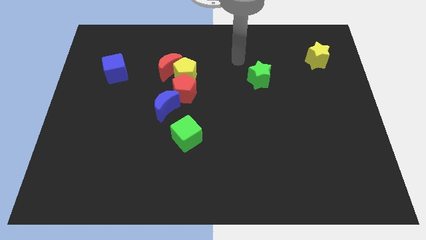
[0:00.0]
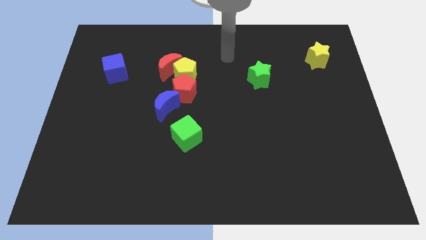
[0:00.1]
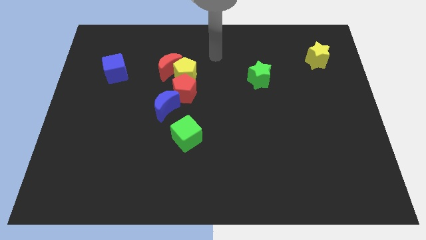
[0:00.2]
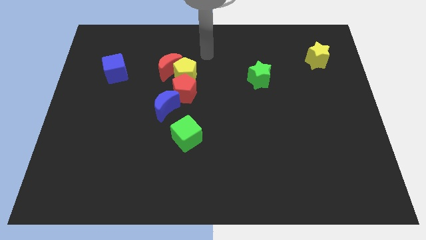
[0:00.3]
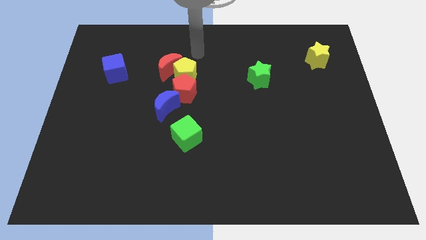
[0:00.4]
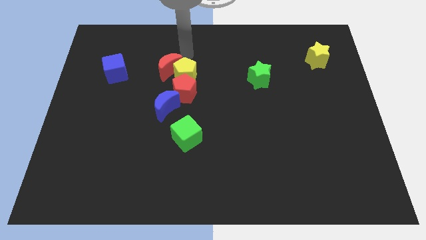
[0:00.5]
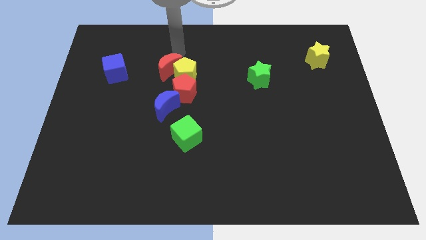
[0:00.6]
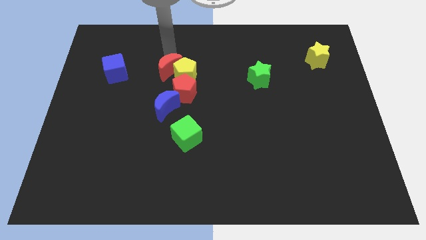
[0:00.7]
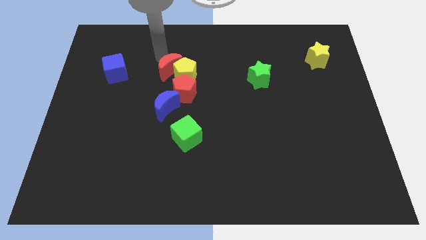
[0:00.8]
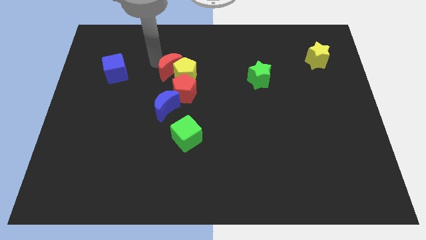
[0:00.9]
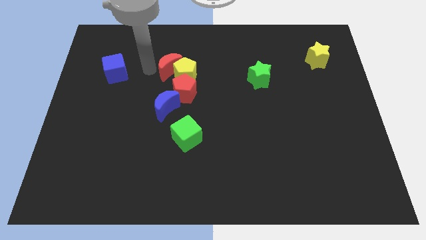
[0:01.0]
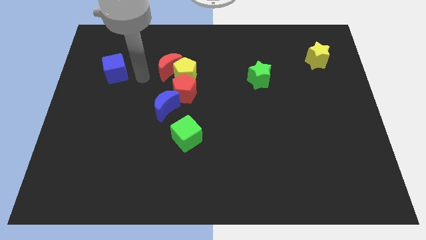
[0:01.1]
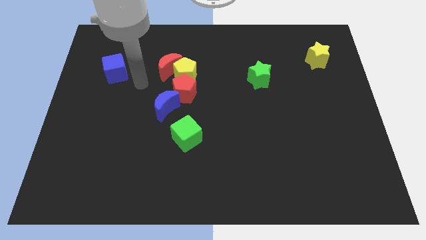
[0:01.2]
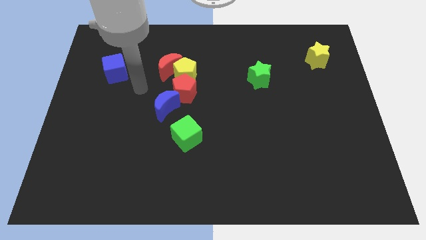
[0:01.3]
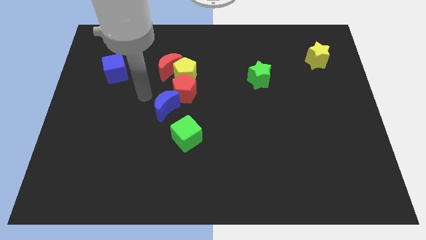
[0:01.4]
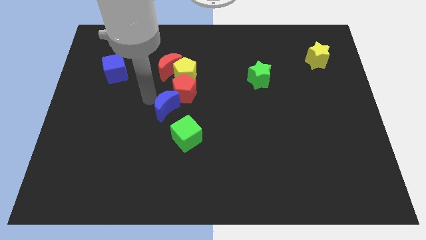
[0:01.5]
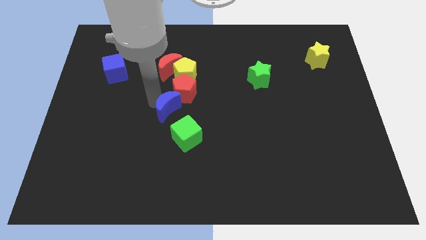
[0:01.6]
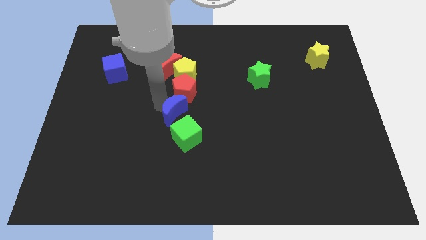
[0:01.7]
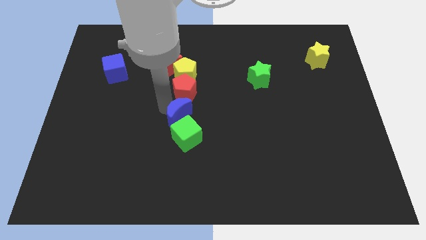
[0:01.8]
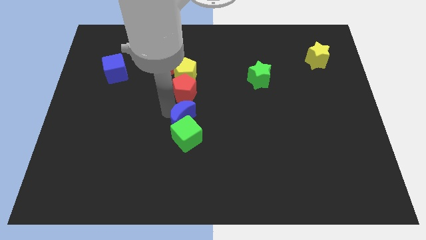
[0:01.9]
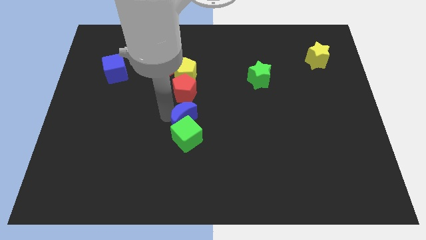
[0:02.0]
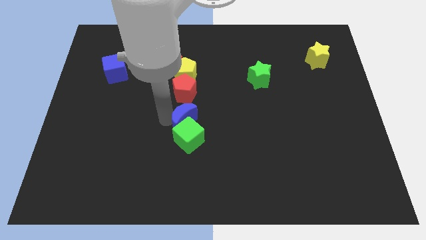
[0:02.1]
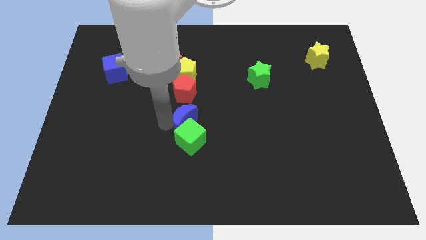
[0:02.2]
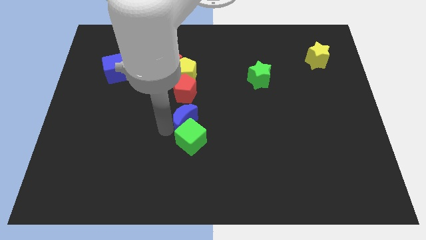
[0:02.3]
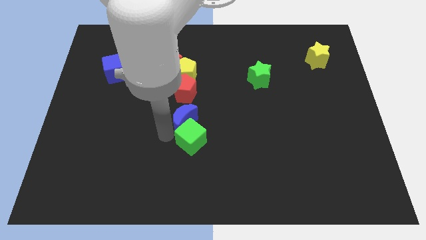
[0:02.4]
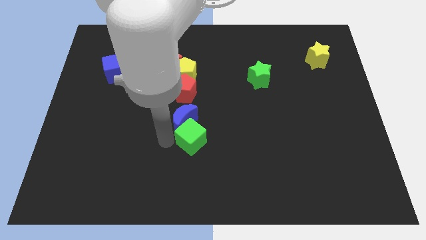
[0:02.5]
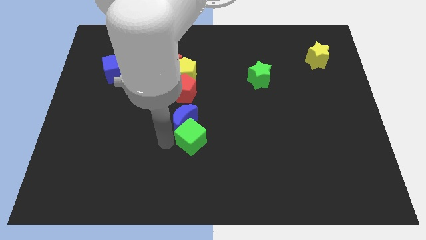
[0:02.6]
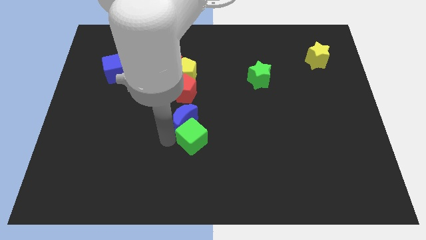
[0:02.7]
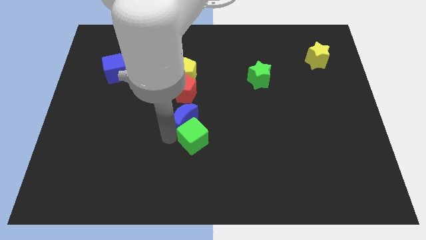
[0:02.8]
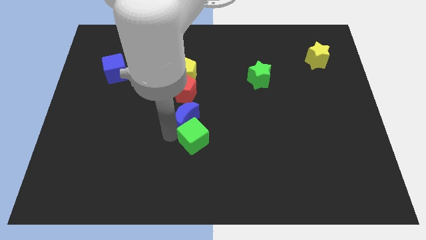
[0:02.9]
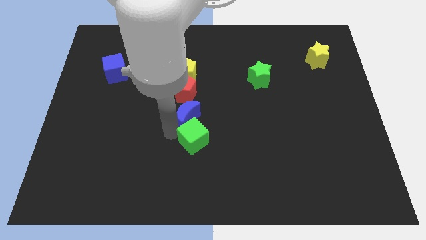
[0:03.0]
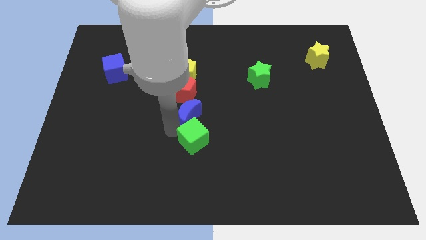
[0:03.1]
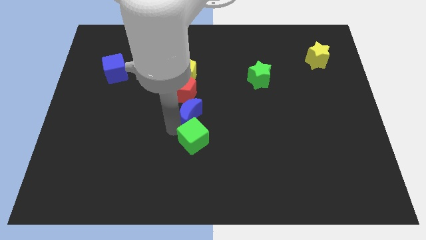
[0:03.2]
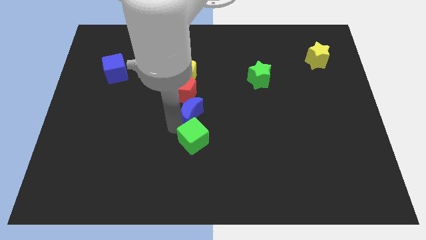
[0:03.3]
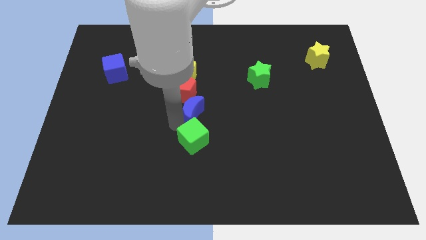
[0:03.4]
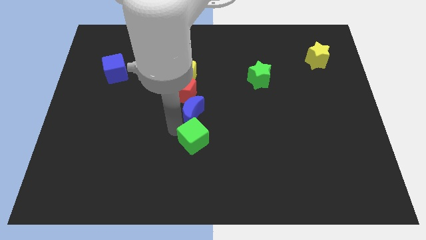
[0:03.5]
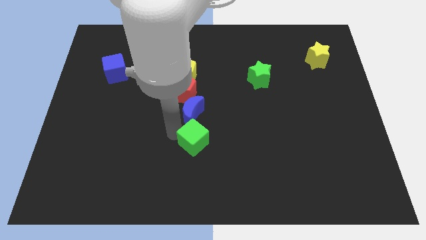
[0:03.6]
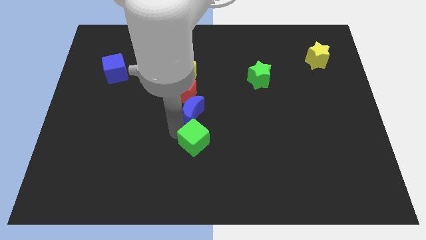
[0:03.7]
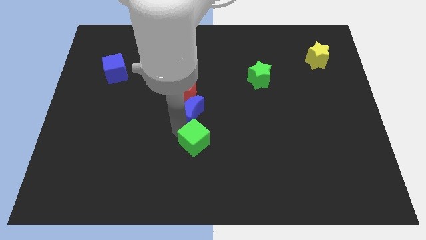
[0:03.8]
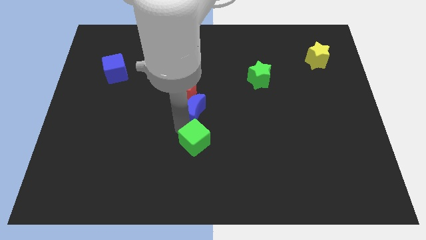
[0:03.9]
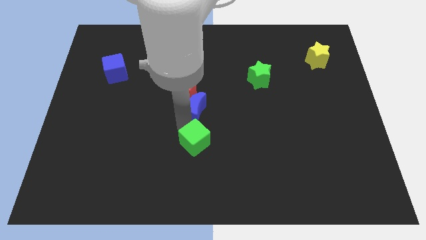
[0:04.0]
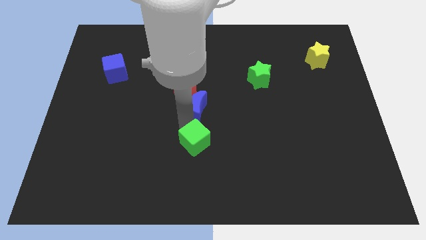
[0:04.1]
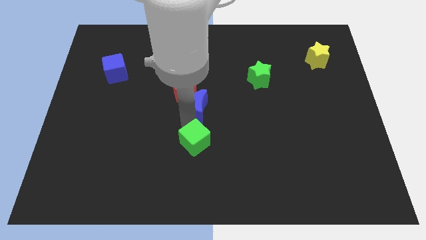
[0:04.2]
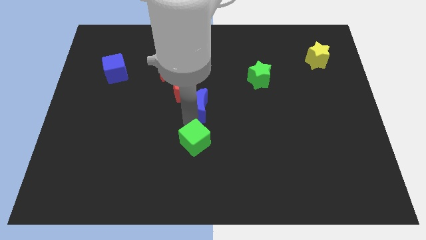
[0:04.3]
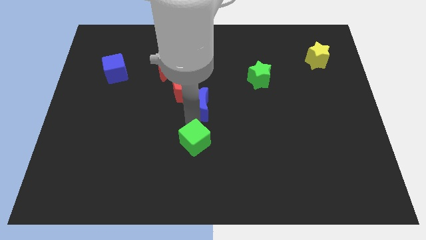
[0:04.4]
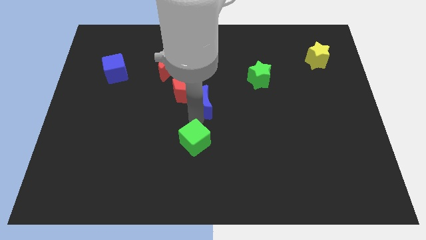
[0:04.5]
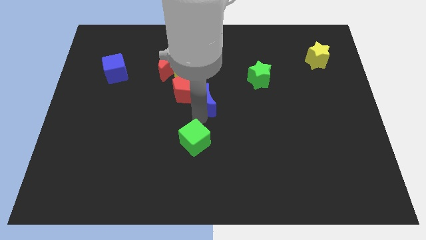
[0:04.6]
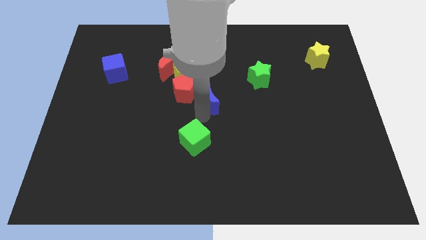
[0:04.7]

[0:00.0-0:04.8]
push the blue moon a little up and then to the right

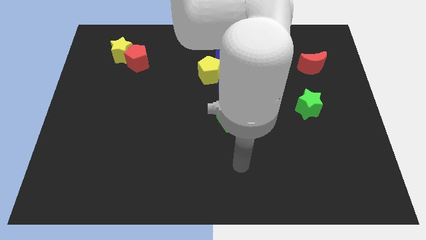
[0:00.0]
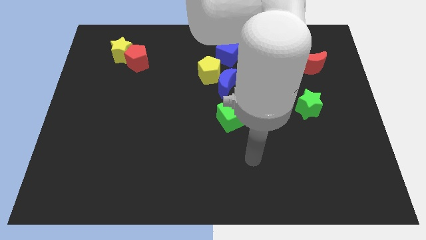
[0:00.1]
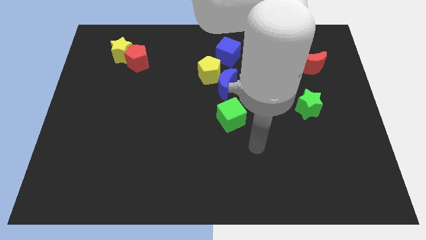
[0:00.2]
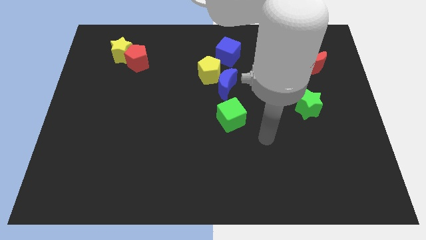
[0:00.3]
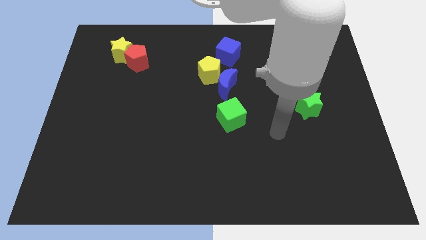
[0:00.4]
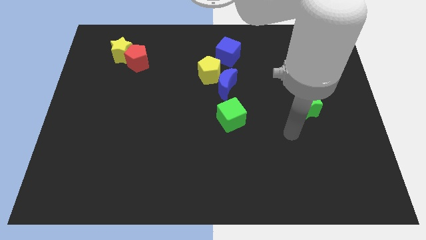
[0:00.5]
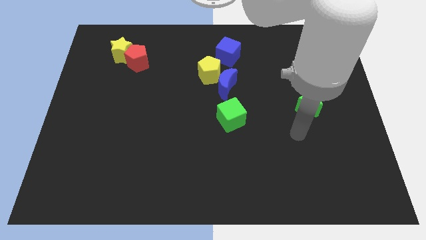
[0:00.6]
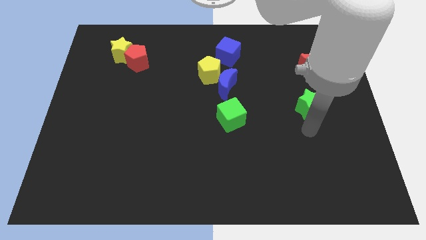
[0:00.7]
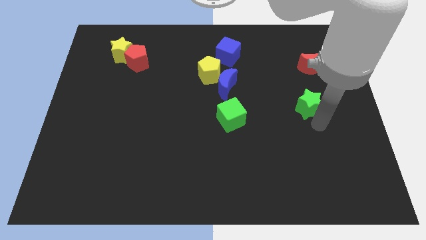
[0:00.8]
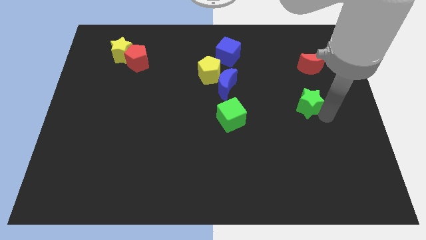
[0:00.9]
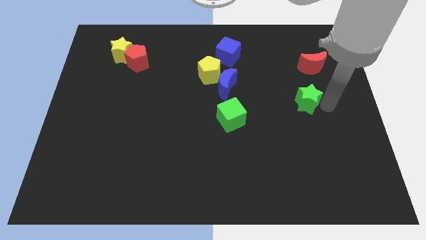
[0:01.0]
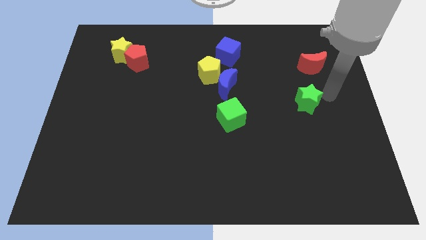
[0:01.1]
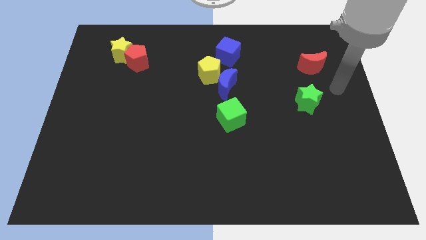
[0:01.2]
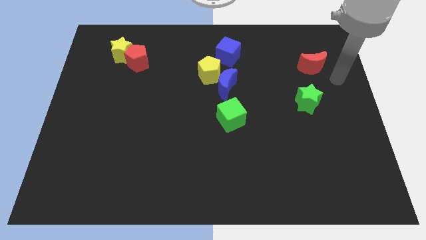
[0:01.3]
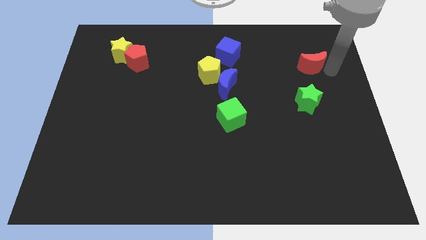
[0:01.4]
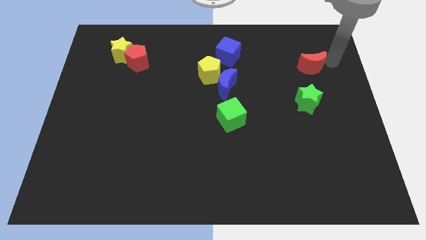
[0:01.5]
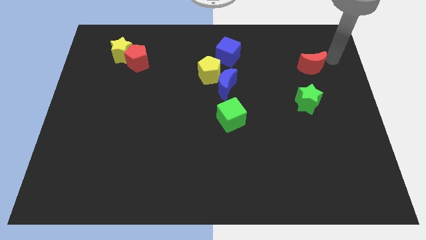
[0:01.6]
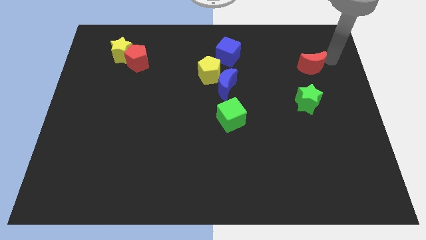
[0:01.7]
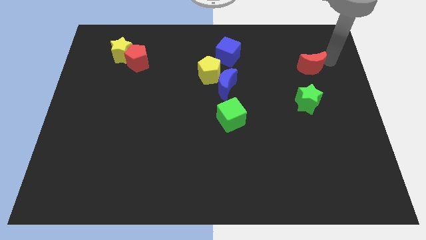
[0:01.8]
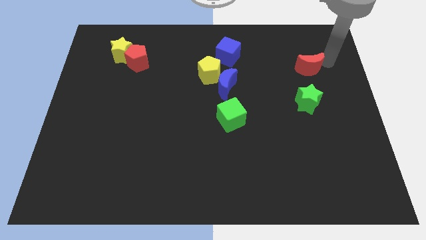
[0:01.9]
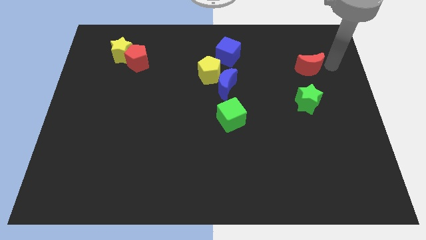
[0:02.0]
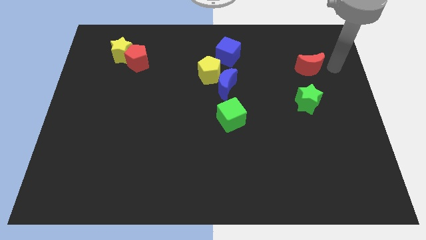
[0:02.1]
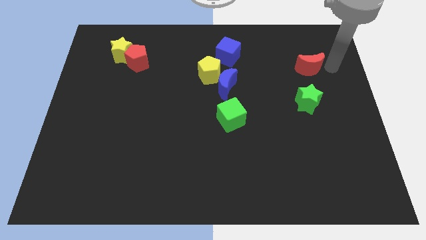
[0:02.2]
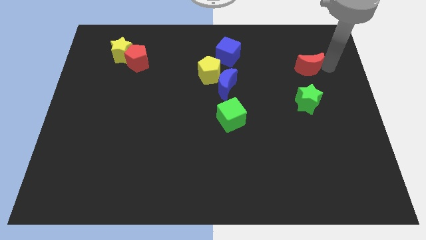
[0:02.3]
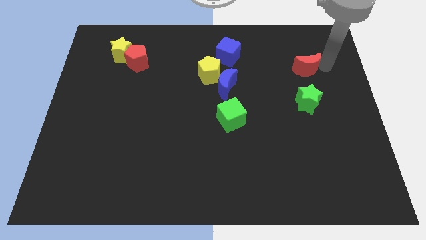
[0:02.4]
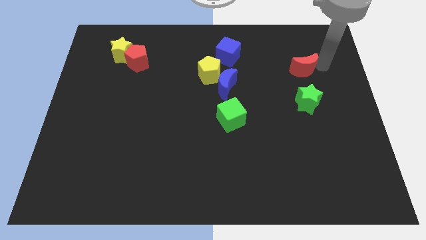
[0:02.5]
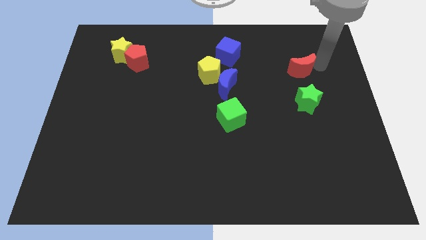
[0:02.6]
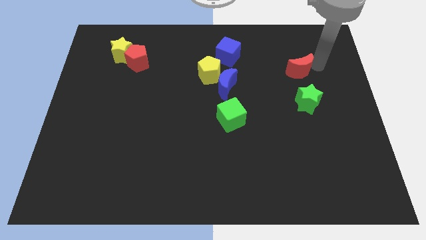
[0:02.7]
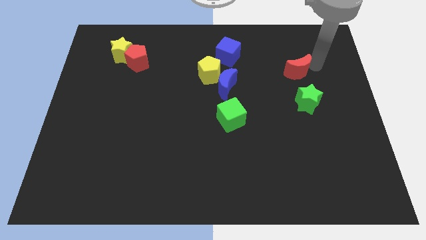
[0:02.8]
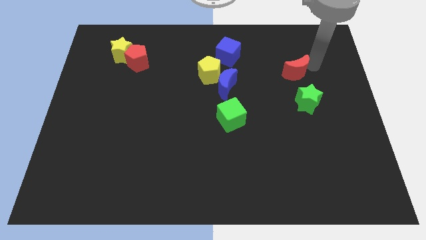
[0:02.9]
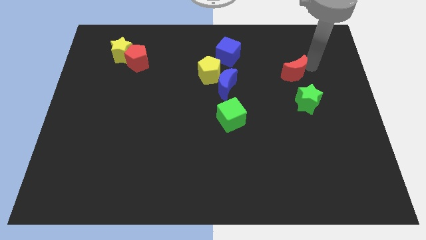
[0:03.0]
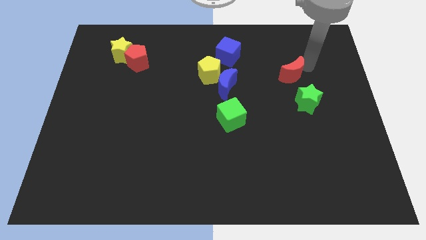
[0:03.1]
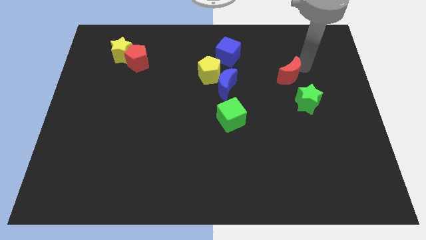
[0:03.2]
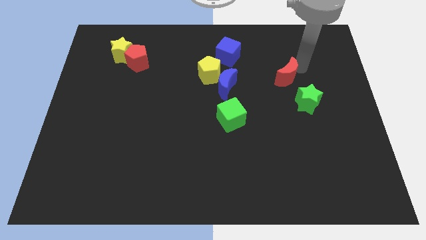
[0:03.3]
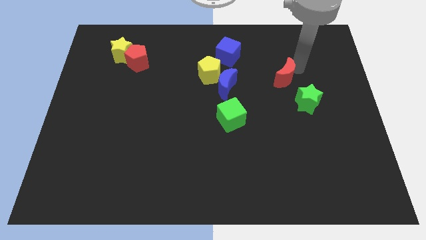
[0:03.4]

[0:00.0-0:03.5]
slide the red moon slightly to the left
